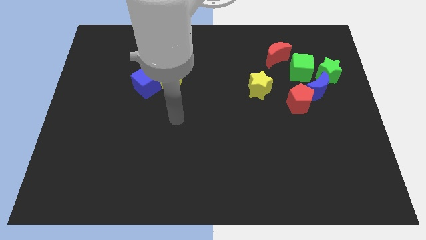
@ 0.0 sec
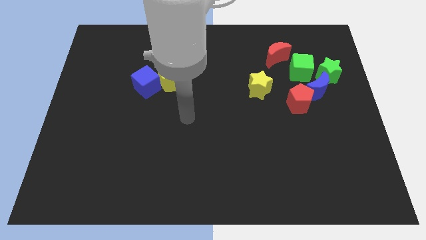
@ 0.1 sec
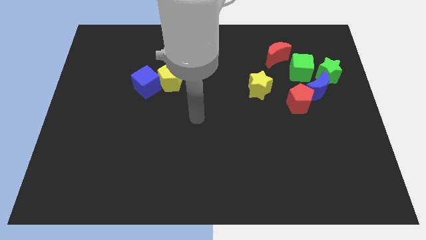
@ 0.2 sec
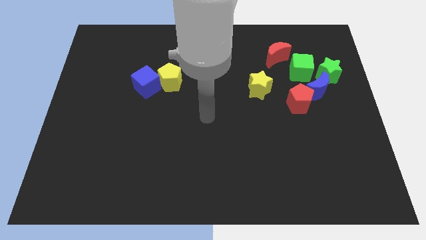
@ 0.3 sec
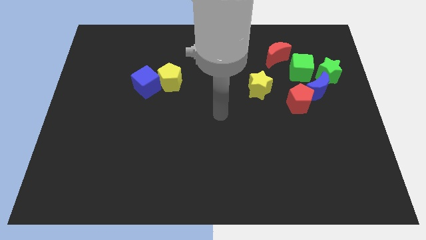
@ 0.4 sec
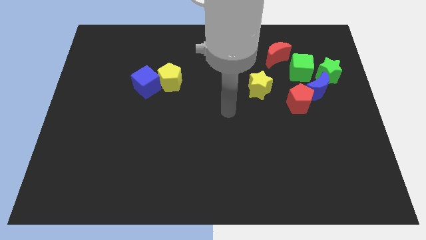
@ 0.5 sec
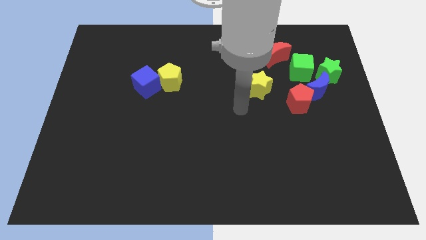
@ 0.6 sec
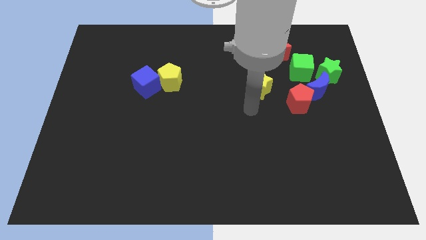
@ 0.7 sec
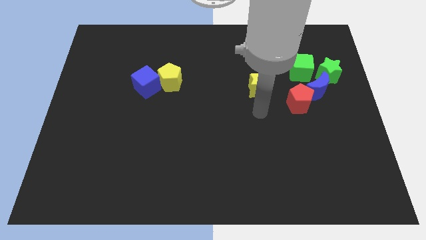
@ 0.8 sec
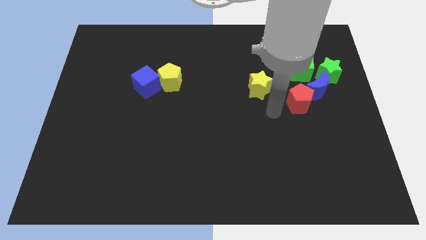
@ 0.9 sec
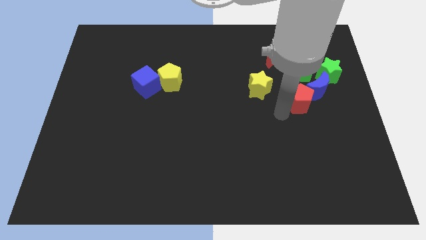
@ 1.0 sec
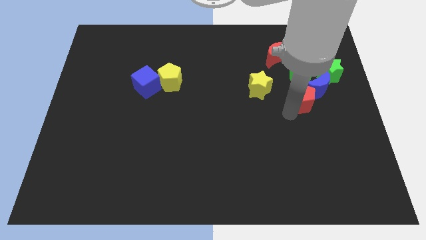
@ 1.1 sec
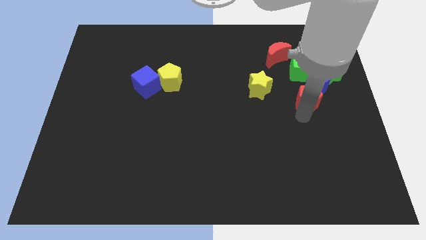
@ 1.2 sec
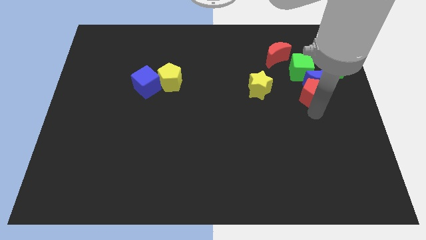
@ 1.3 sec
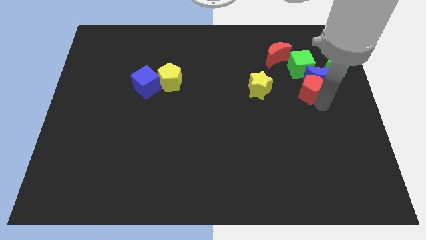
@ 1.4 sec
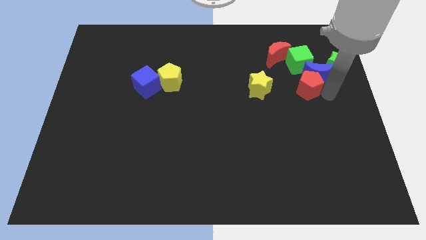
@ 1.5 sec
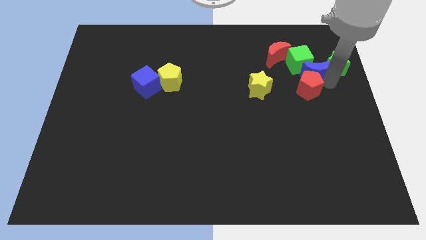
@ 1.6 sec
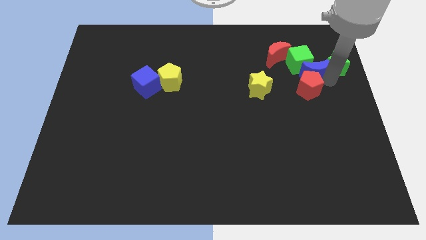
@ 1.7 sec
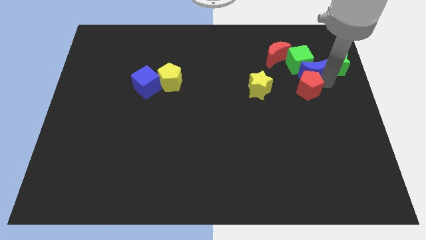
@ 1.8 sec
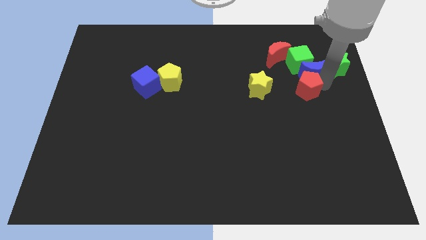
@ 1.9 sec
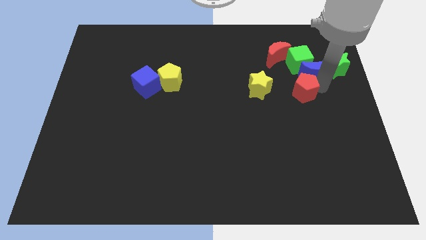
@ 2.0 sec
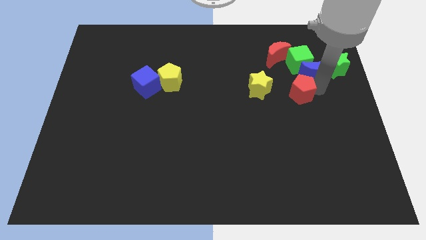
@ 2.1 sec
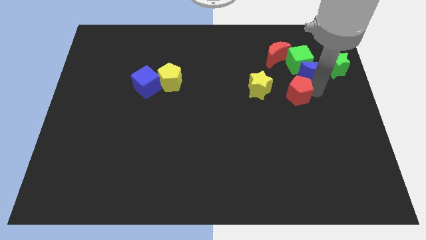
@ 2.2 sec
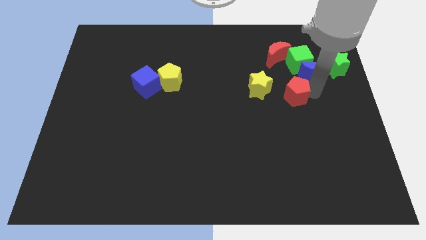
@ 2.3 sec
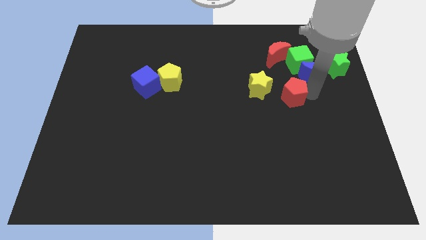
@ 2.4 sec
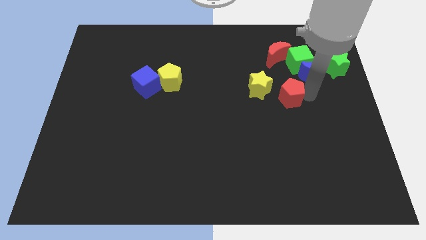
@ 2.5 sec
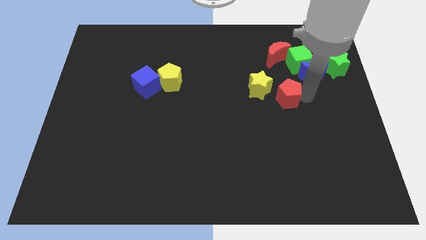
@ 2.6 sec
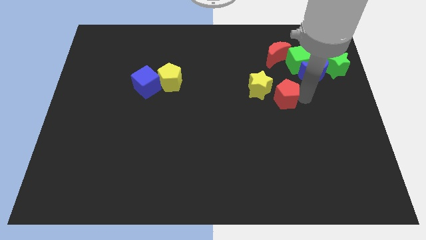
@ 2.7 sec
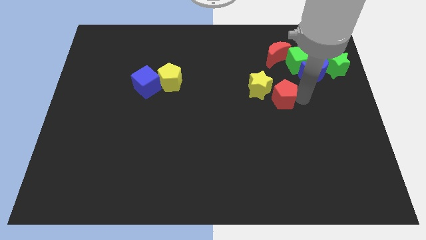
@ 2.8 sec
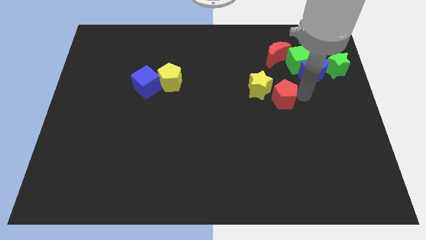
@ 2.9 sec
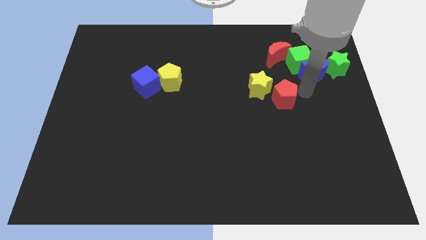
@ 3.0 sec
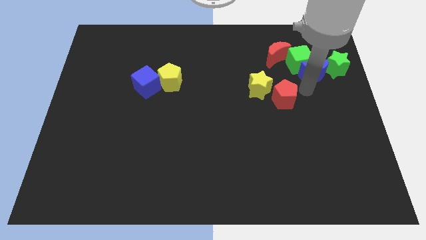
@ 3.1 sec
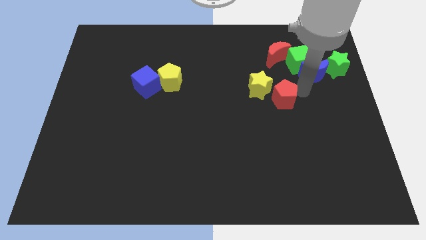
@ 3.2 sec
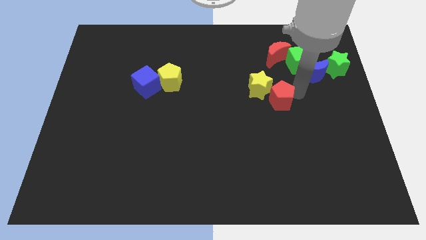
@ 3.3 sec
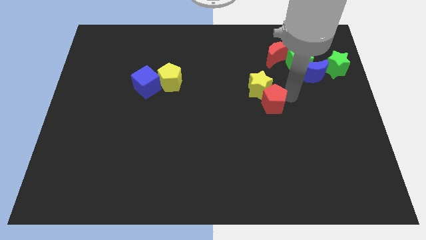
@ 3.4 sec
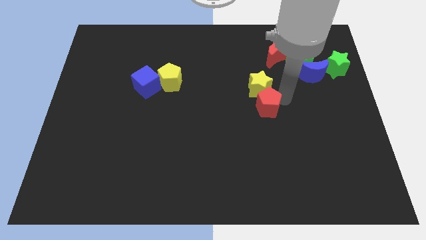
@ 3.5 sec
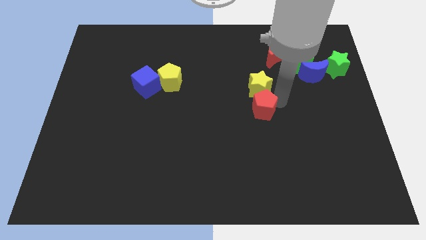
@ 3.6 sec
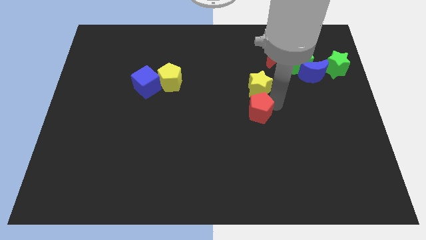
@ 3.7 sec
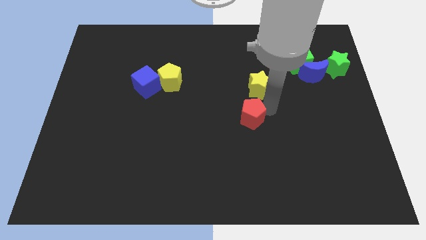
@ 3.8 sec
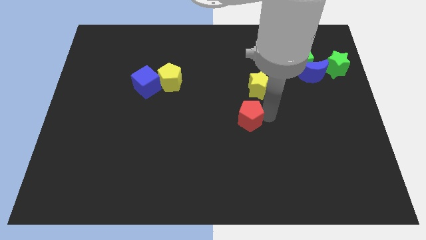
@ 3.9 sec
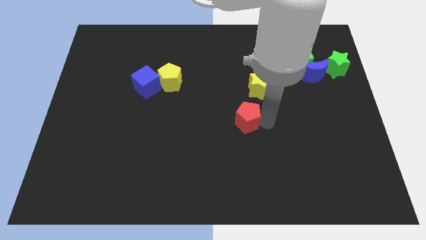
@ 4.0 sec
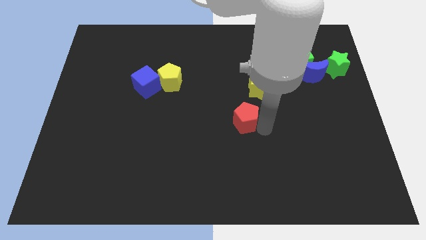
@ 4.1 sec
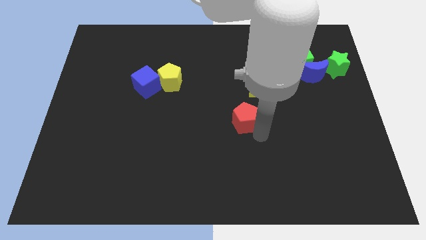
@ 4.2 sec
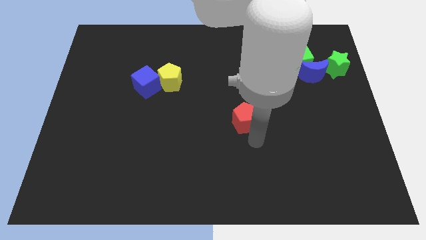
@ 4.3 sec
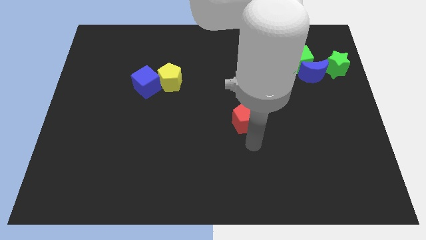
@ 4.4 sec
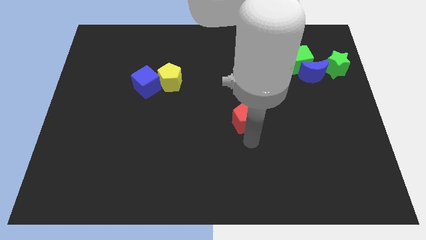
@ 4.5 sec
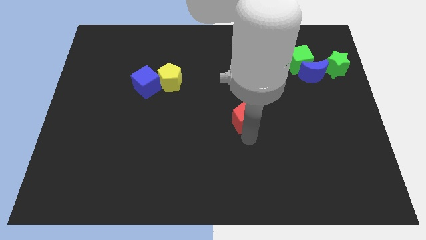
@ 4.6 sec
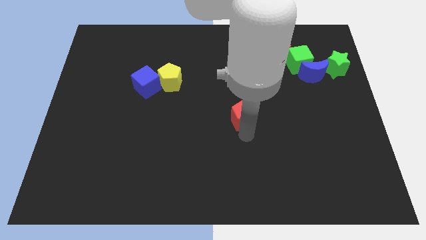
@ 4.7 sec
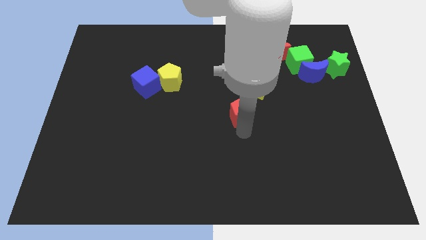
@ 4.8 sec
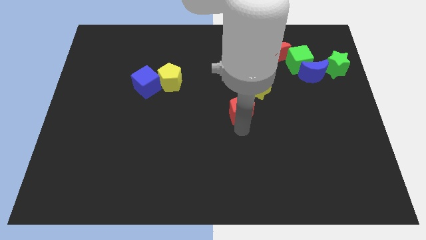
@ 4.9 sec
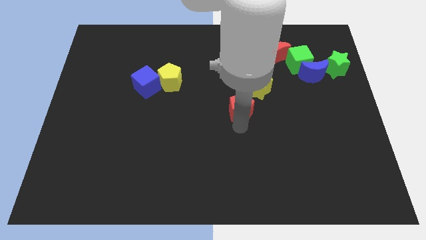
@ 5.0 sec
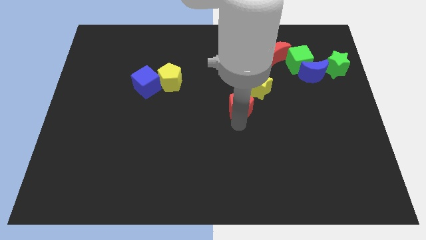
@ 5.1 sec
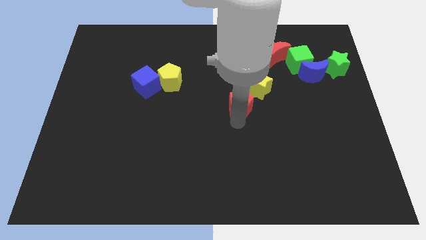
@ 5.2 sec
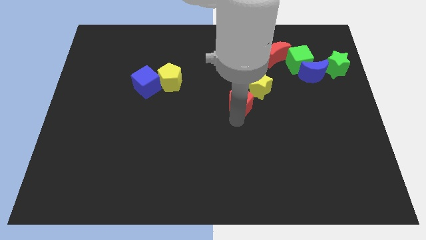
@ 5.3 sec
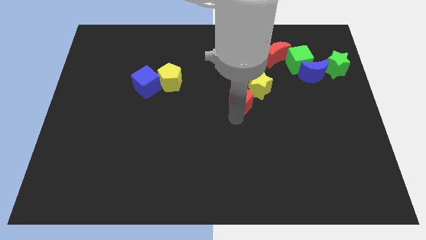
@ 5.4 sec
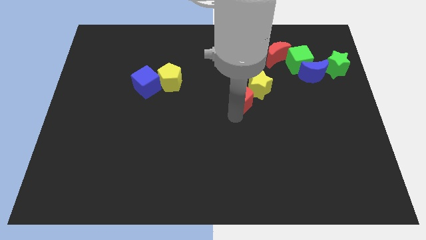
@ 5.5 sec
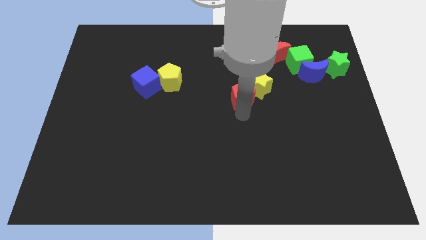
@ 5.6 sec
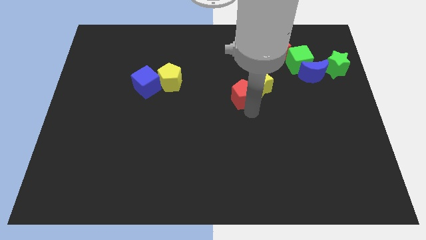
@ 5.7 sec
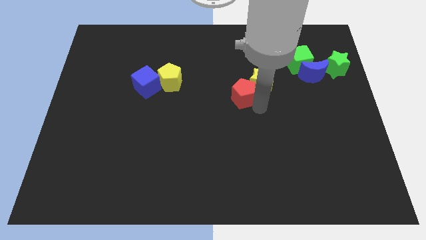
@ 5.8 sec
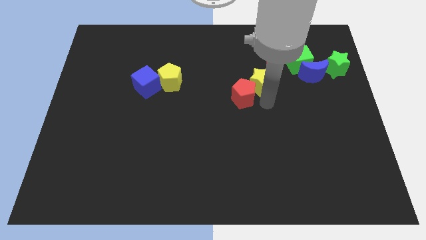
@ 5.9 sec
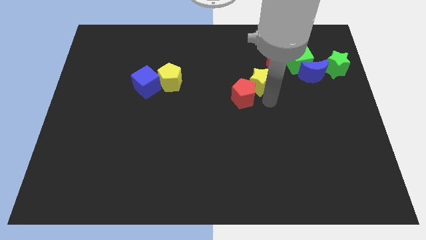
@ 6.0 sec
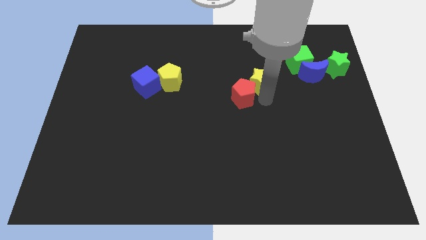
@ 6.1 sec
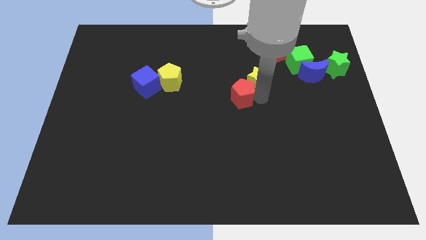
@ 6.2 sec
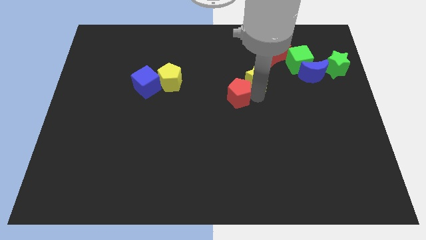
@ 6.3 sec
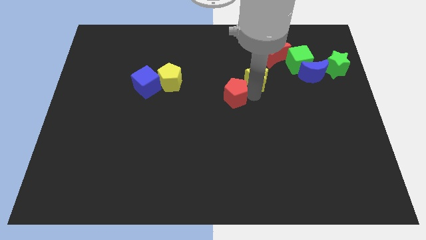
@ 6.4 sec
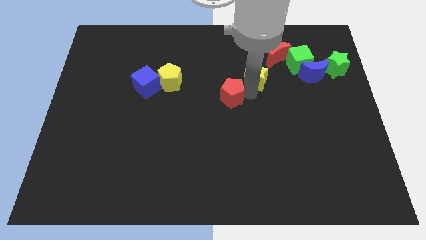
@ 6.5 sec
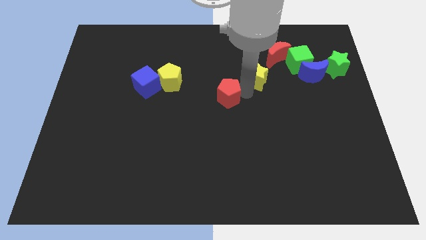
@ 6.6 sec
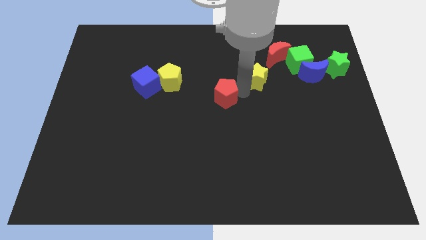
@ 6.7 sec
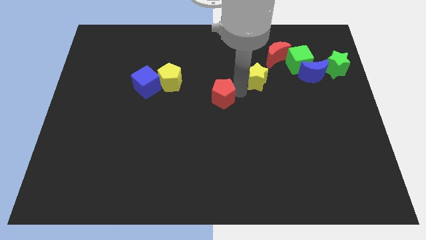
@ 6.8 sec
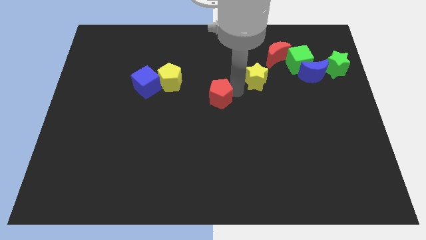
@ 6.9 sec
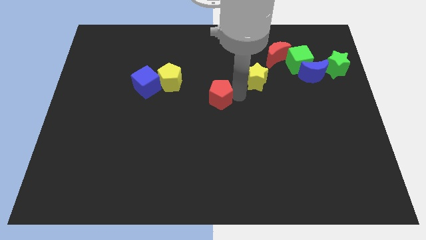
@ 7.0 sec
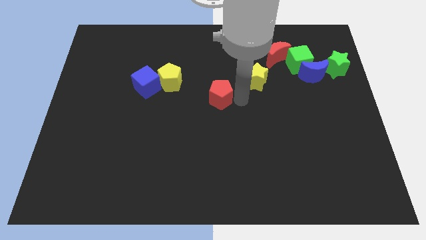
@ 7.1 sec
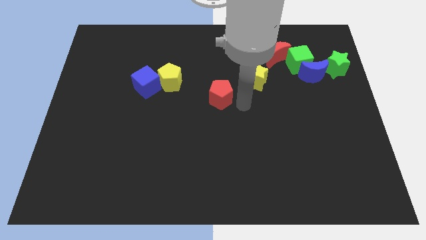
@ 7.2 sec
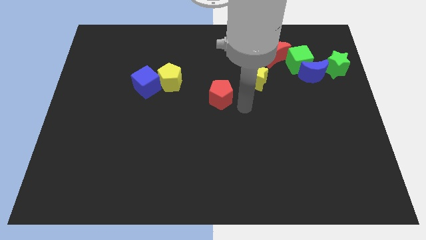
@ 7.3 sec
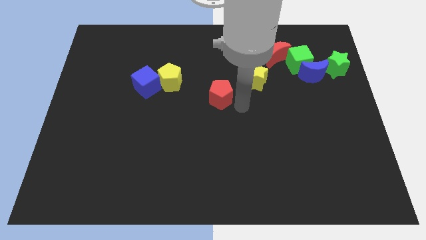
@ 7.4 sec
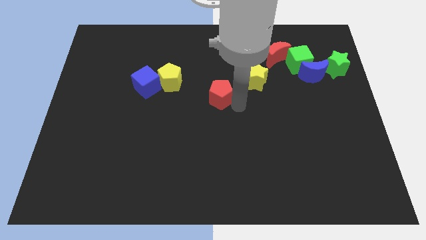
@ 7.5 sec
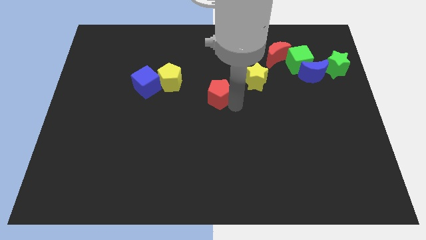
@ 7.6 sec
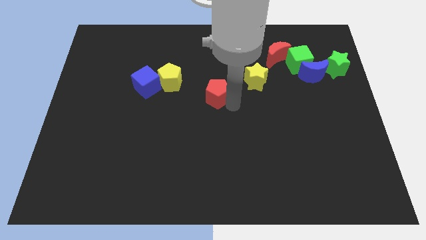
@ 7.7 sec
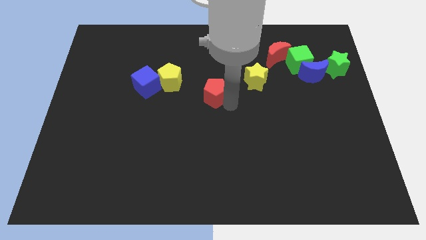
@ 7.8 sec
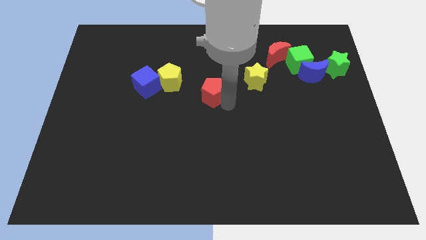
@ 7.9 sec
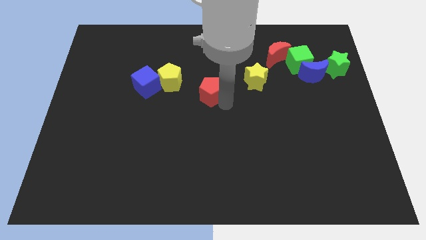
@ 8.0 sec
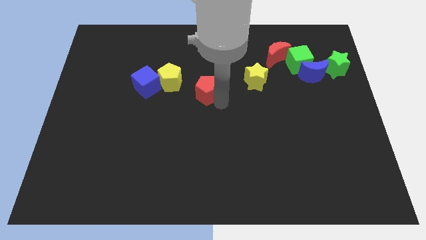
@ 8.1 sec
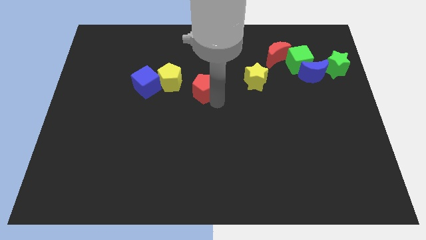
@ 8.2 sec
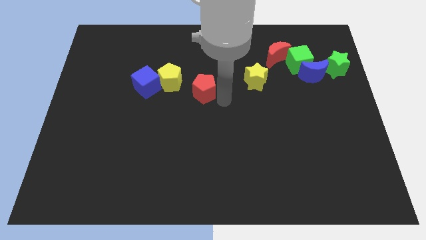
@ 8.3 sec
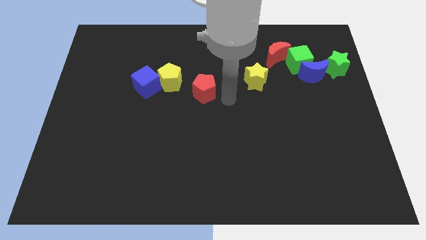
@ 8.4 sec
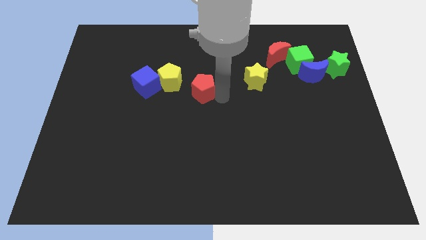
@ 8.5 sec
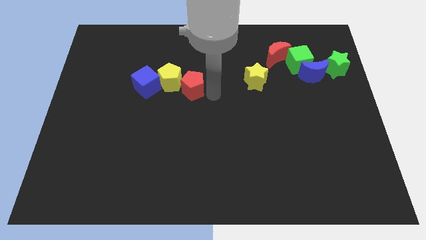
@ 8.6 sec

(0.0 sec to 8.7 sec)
put the red pentagon close to the yellow pentagon
